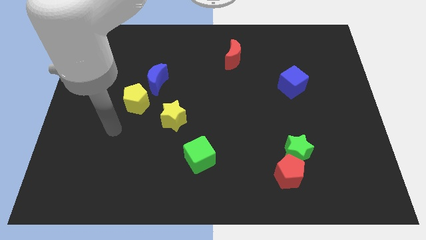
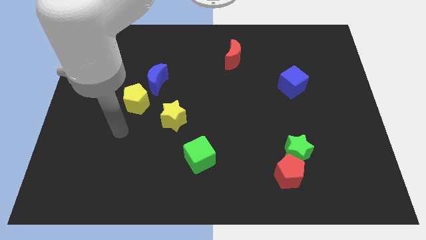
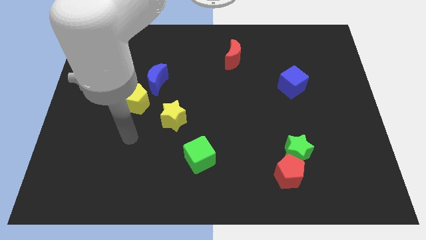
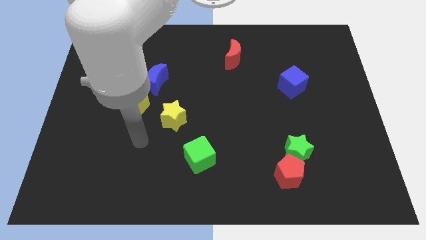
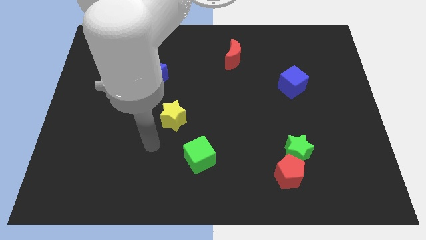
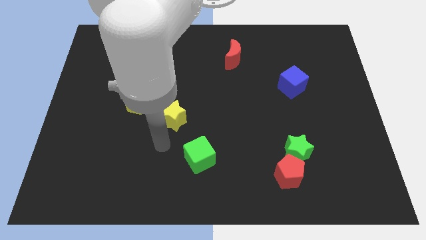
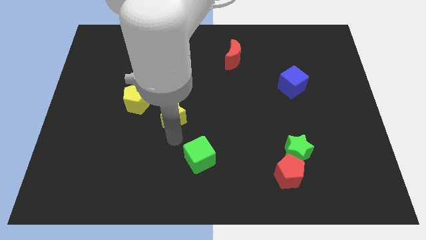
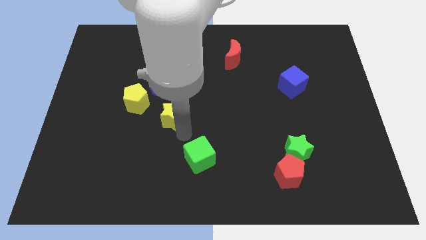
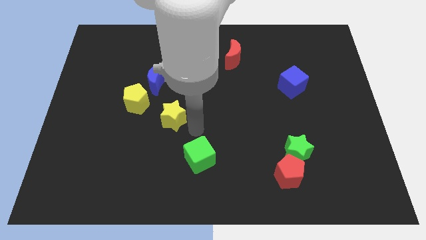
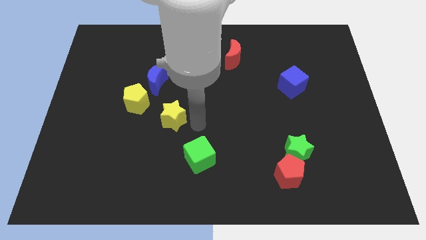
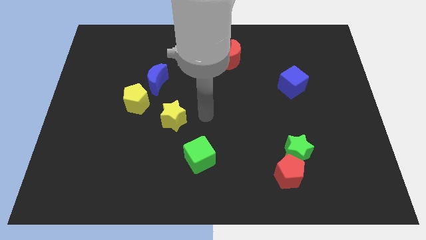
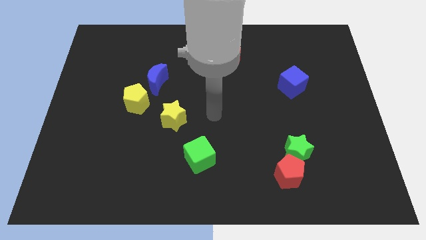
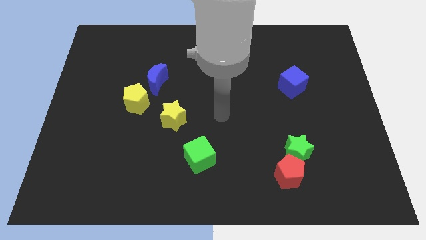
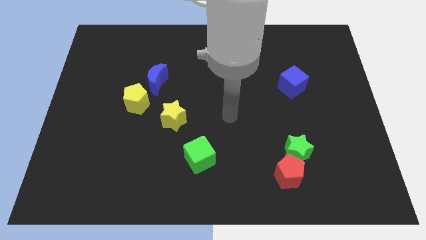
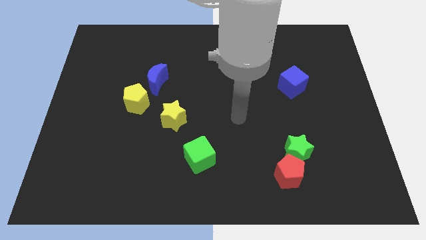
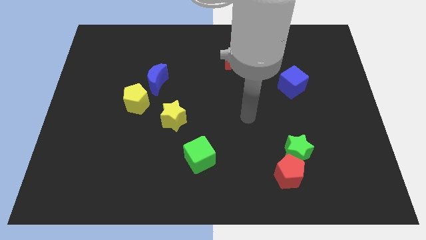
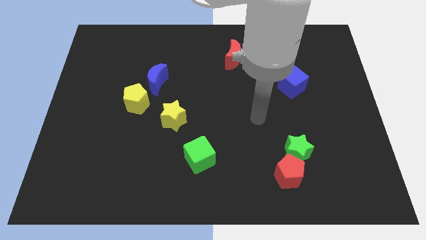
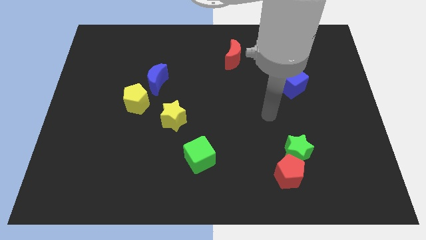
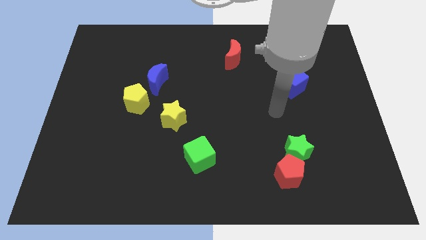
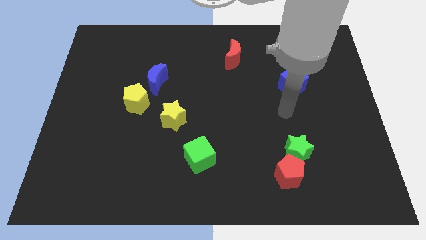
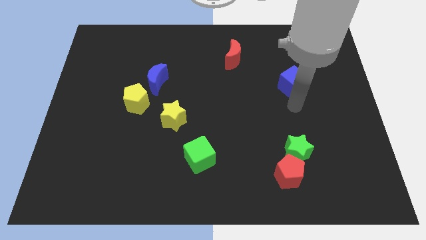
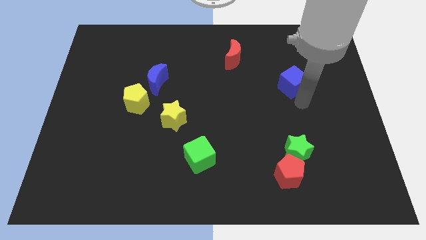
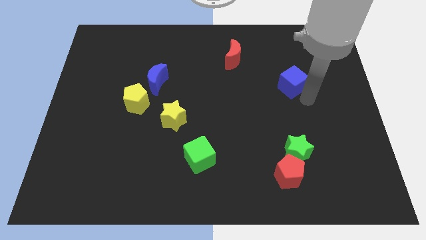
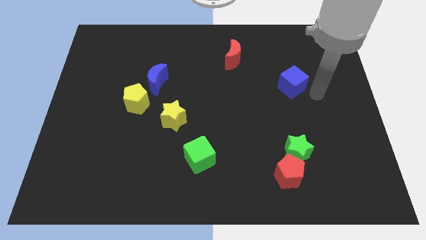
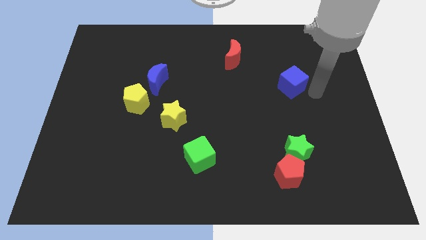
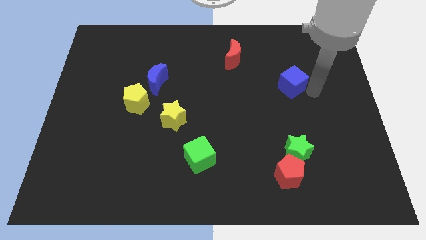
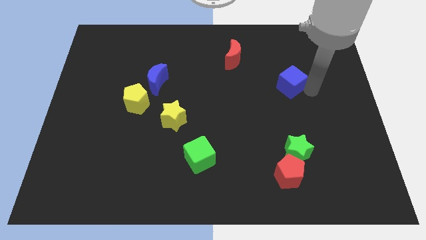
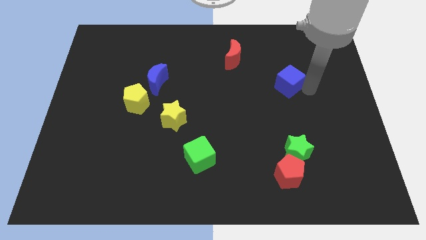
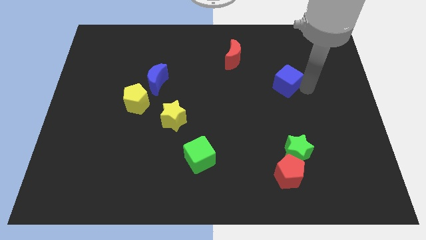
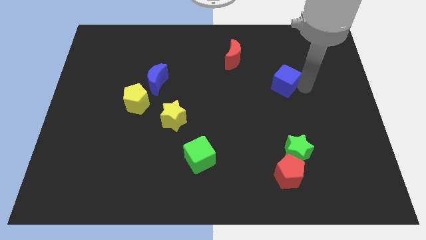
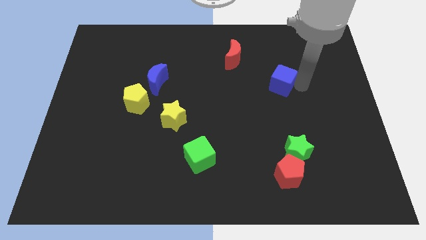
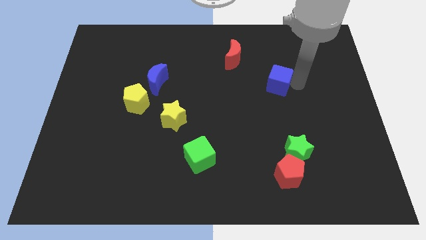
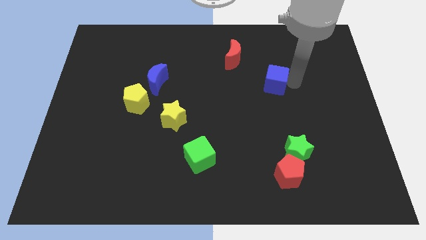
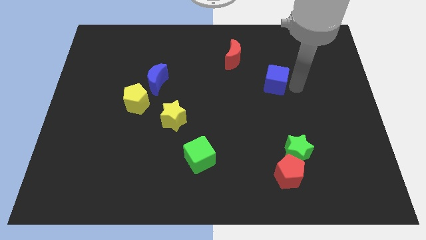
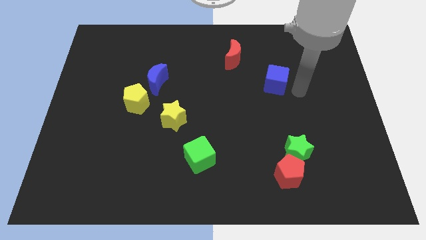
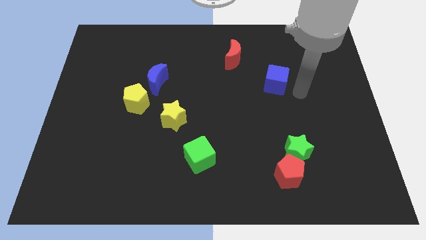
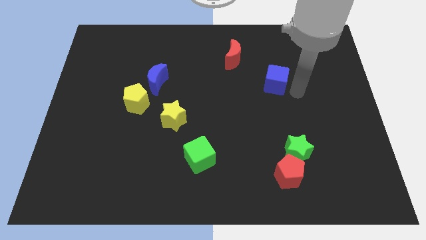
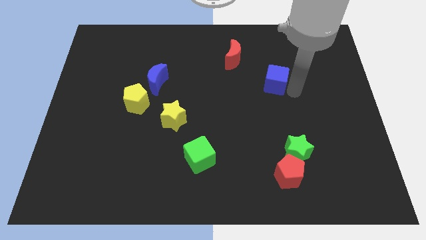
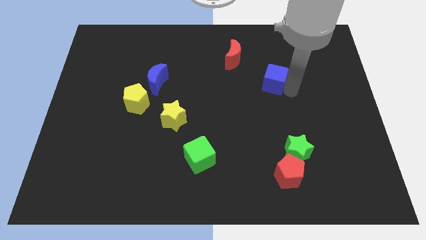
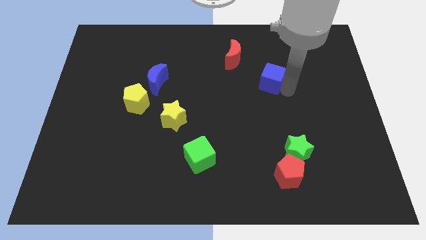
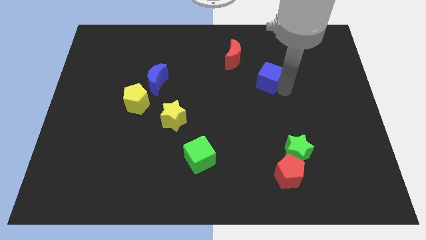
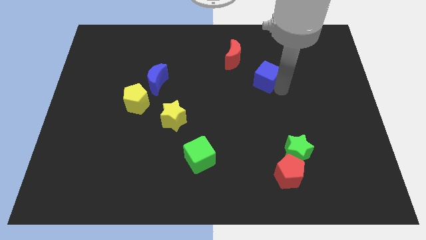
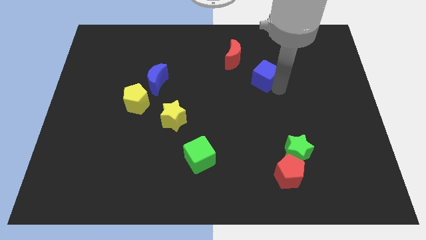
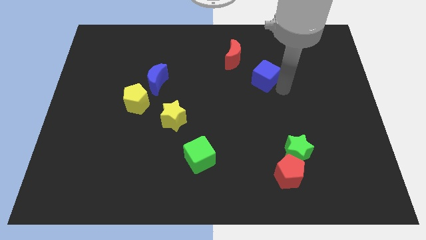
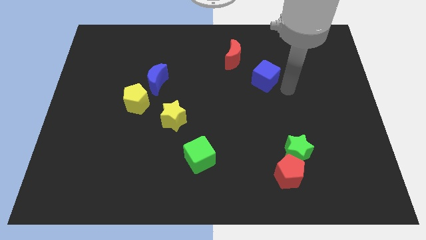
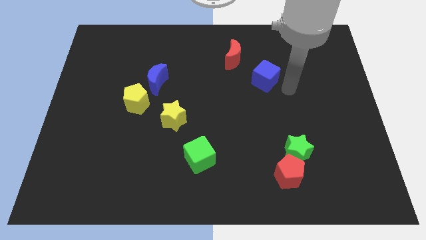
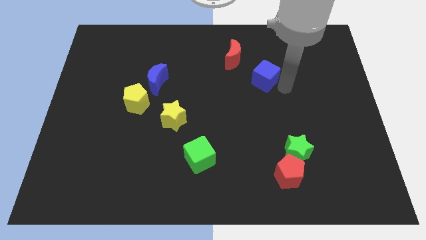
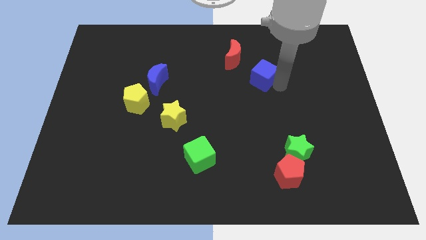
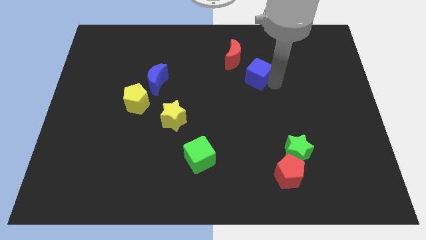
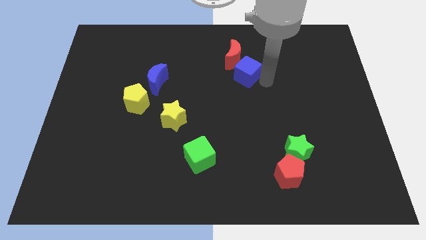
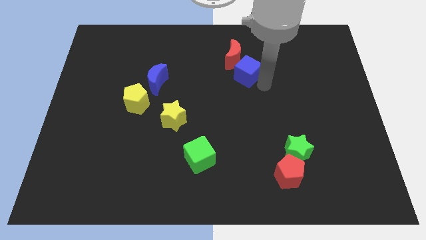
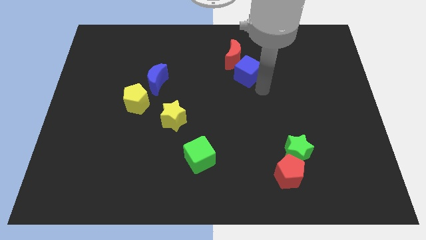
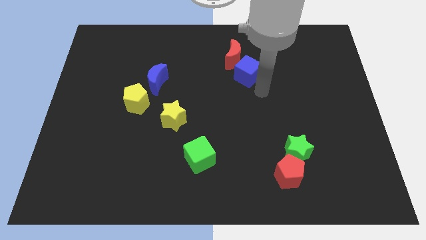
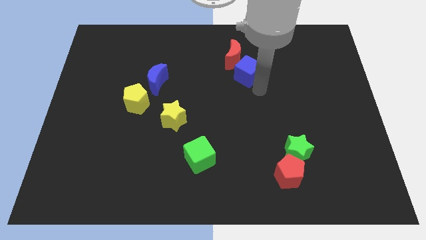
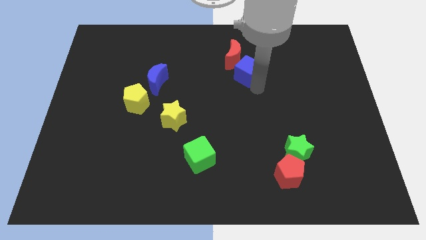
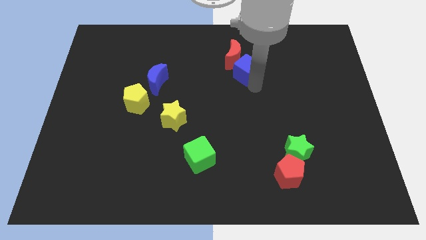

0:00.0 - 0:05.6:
move the blue cube towards the red moon

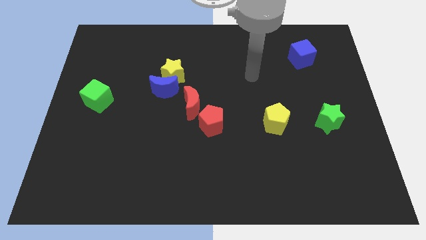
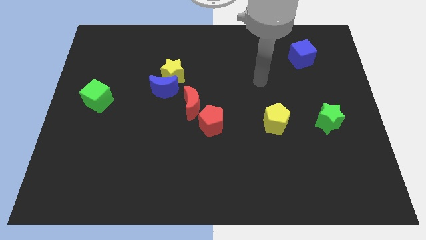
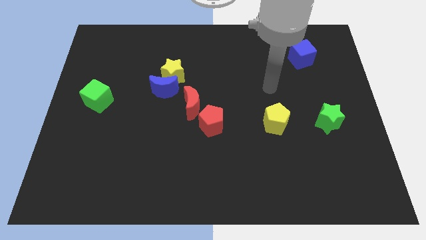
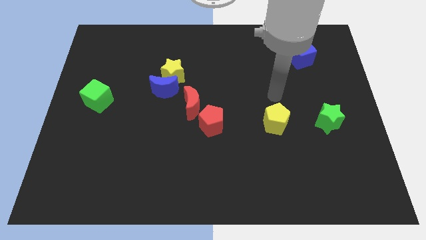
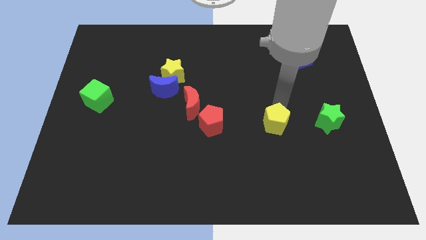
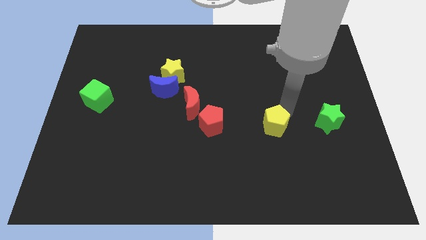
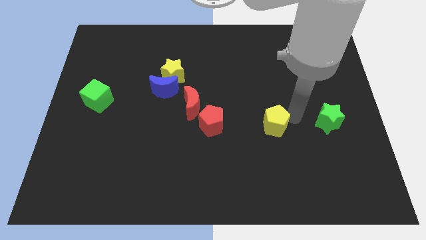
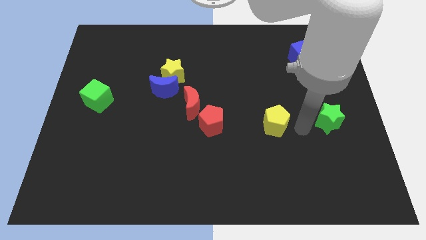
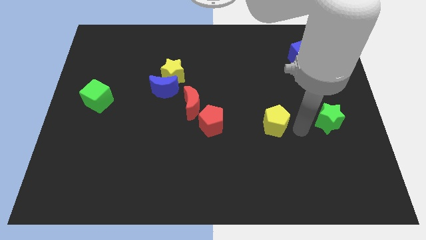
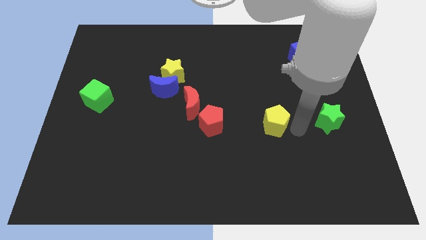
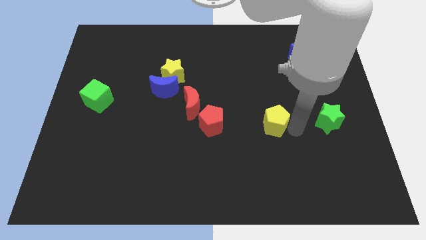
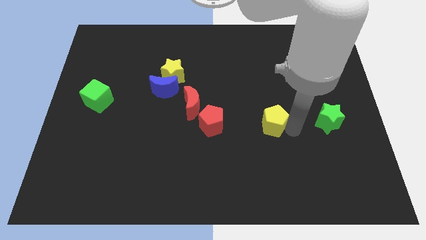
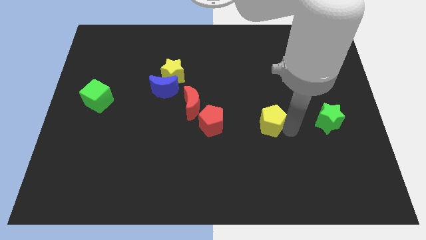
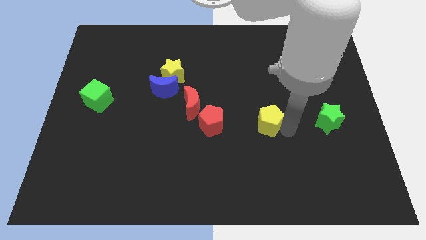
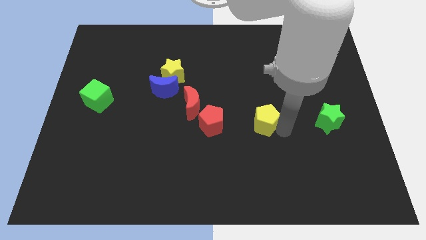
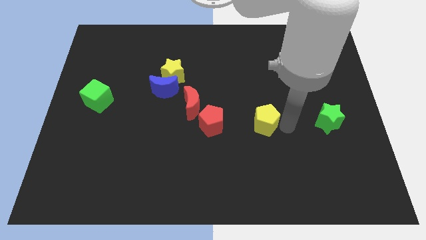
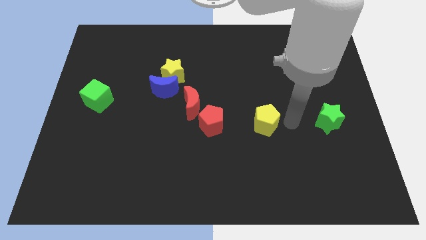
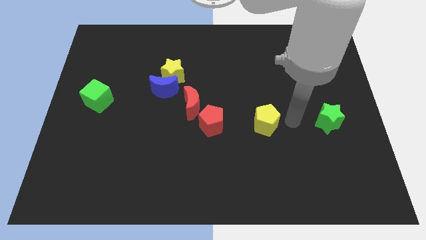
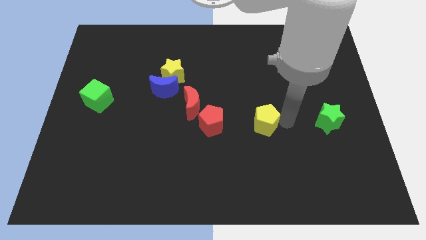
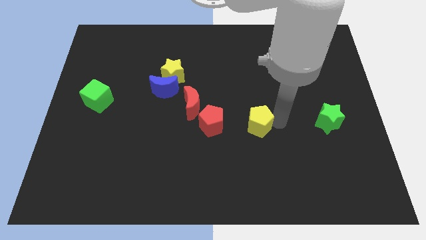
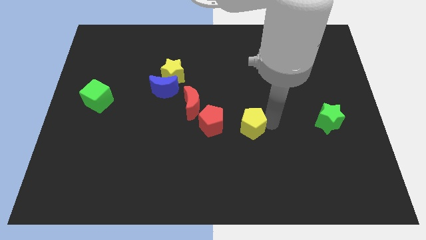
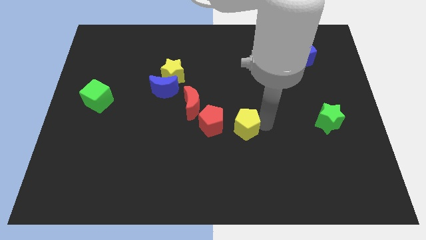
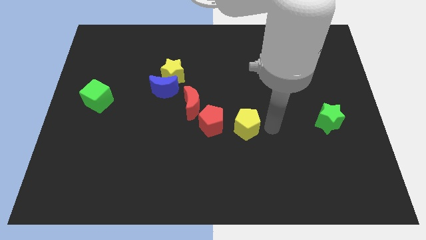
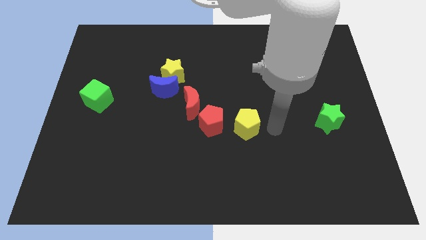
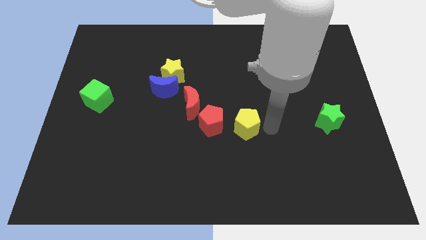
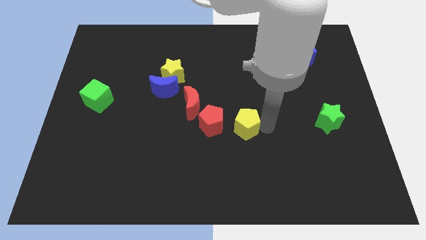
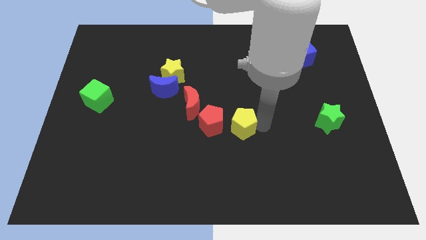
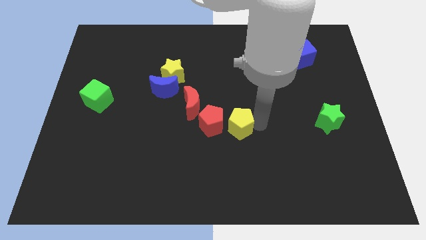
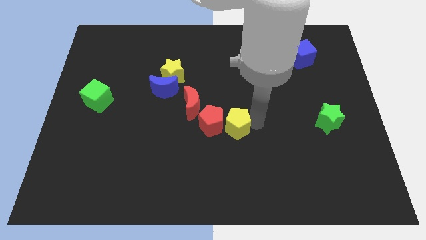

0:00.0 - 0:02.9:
slide the yellow pentagon next to the red pentagon
